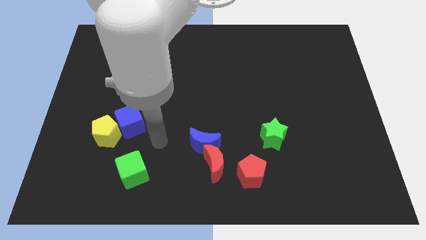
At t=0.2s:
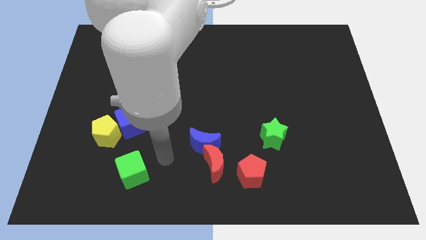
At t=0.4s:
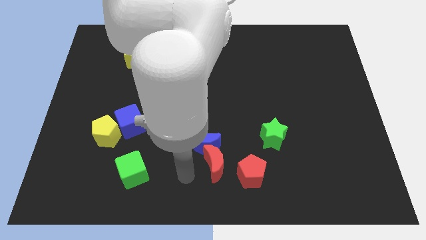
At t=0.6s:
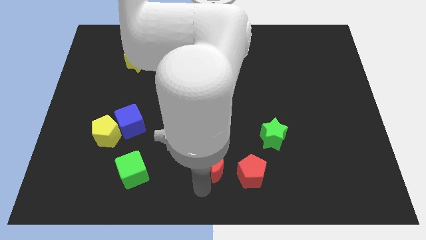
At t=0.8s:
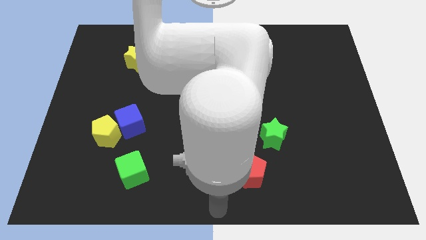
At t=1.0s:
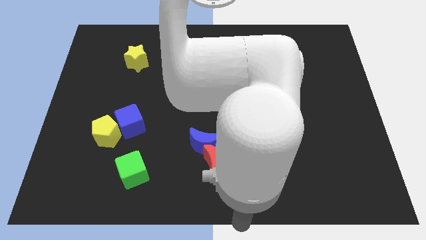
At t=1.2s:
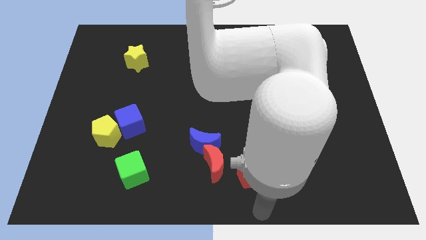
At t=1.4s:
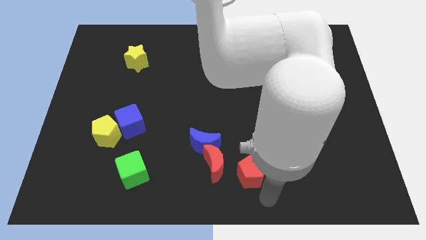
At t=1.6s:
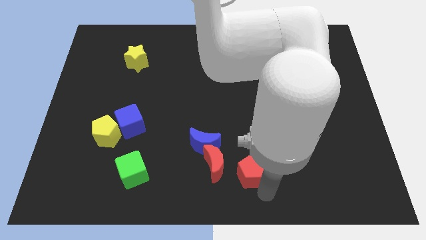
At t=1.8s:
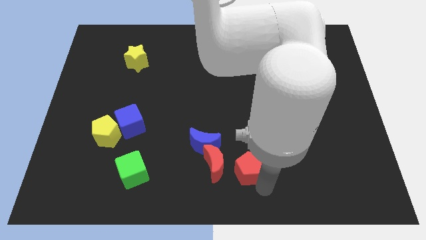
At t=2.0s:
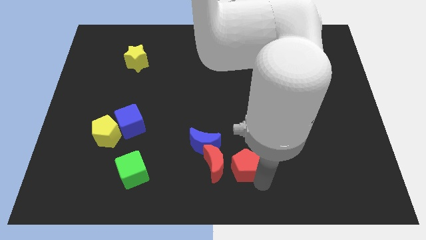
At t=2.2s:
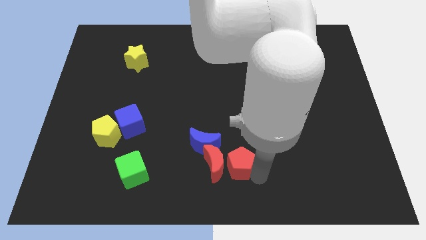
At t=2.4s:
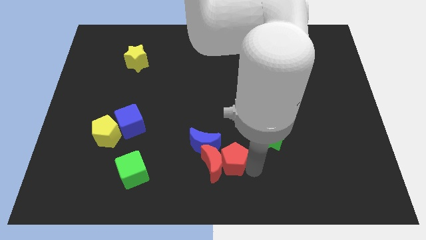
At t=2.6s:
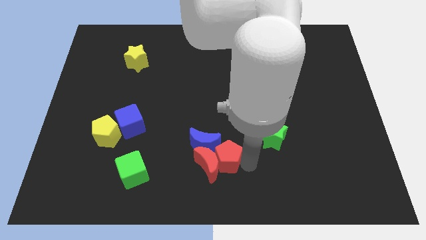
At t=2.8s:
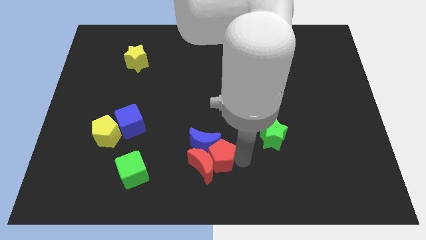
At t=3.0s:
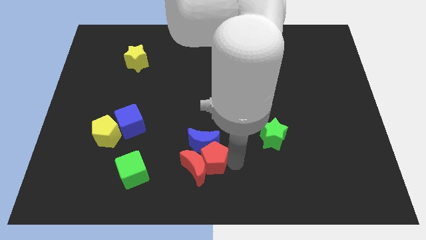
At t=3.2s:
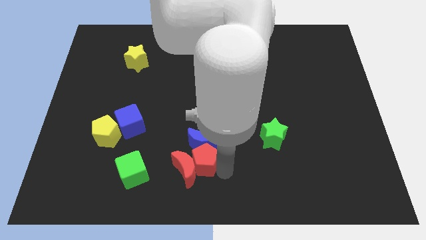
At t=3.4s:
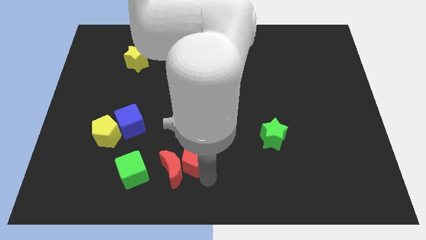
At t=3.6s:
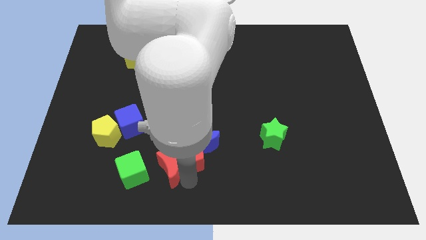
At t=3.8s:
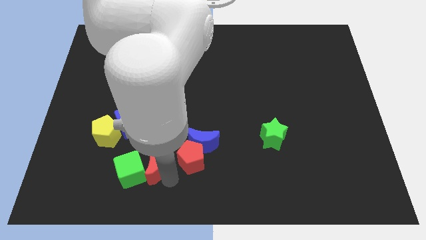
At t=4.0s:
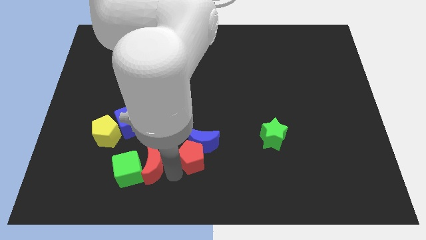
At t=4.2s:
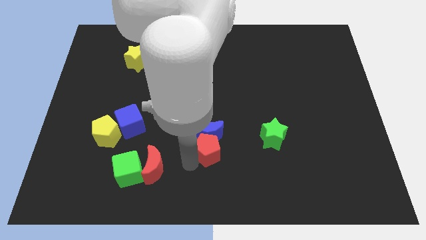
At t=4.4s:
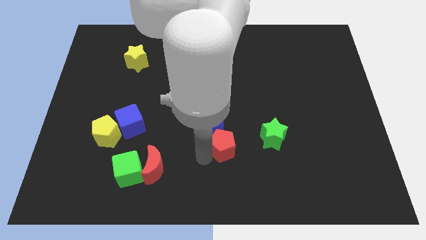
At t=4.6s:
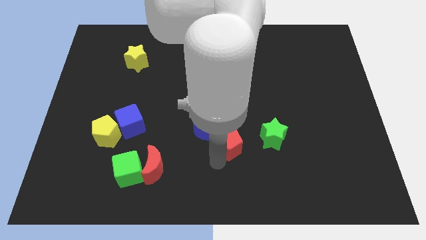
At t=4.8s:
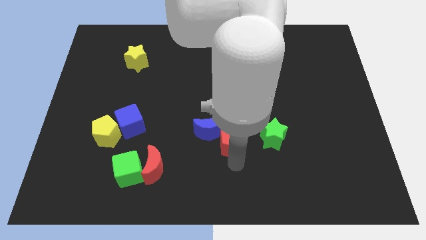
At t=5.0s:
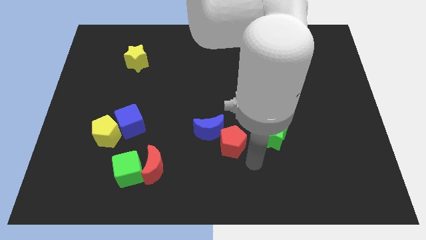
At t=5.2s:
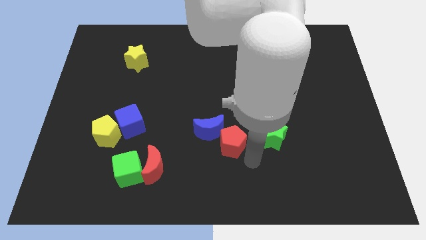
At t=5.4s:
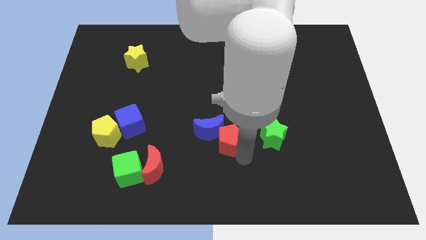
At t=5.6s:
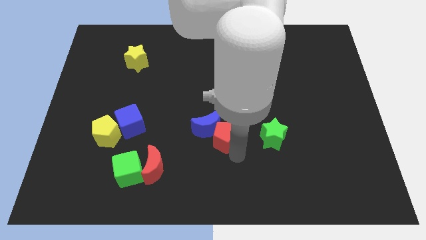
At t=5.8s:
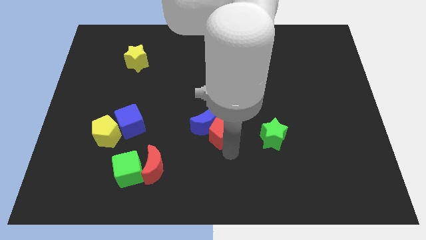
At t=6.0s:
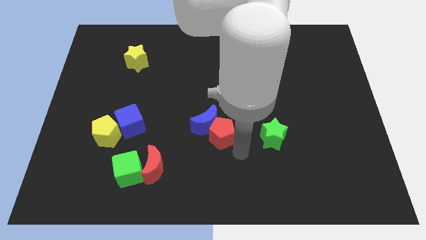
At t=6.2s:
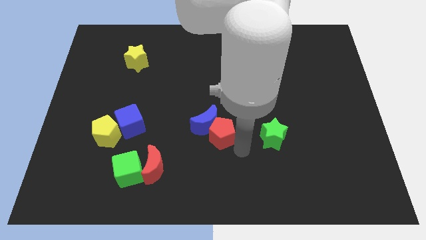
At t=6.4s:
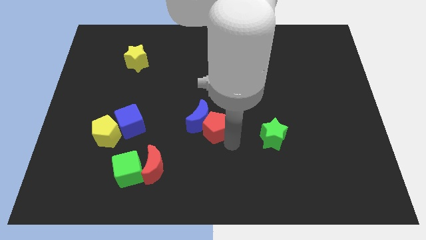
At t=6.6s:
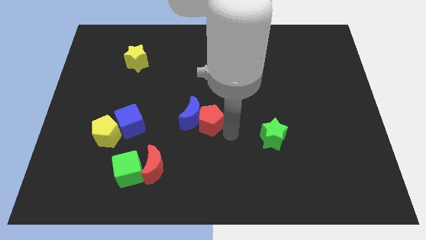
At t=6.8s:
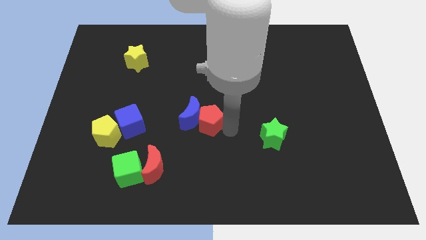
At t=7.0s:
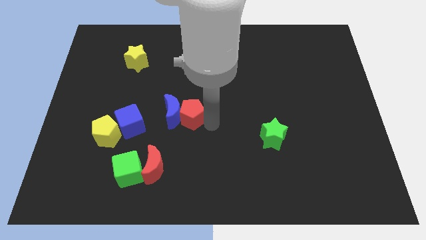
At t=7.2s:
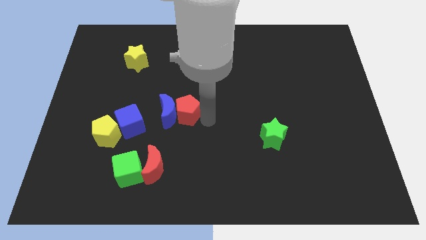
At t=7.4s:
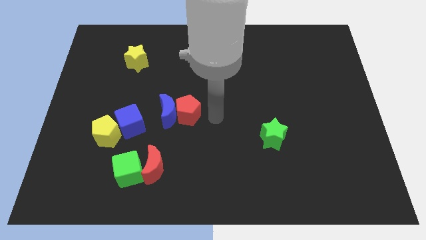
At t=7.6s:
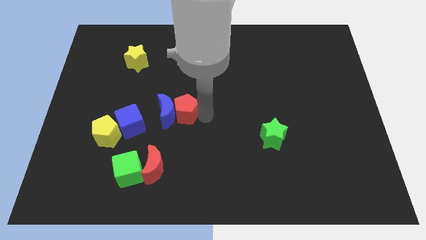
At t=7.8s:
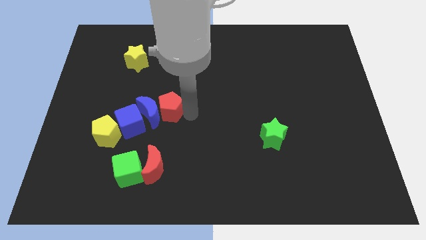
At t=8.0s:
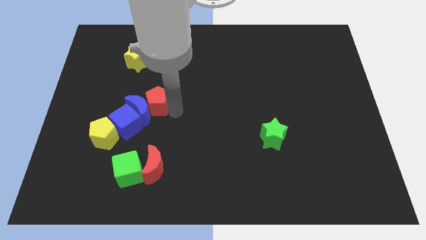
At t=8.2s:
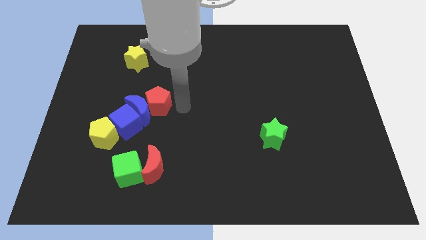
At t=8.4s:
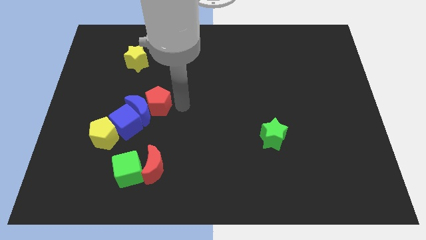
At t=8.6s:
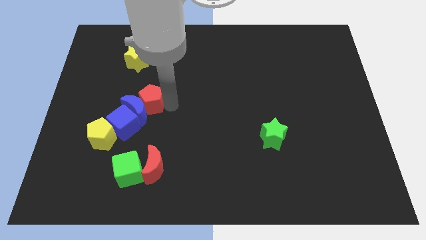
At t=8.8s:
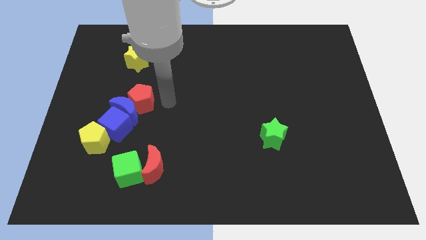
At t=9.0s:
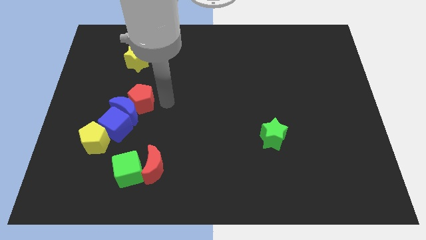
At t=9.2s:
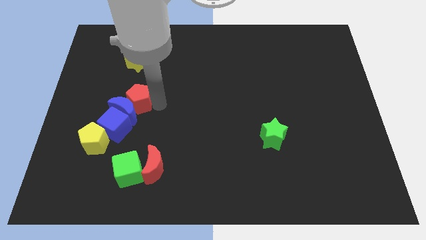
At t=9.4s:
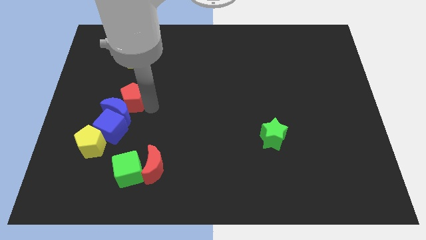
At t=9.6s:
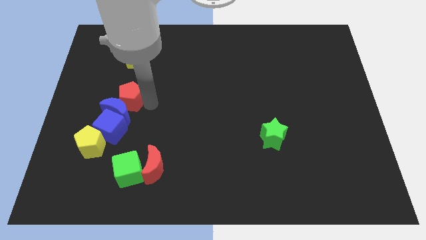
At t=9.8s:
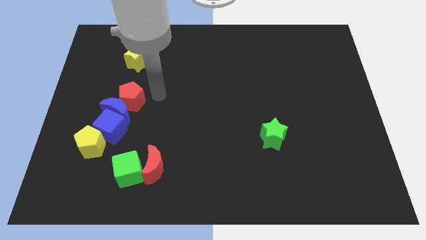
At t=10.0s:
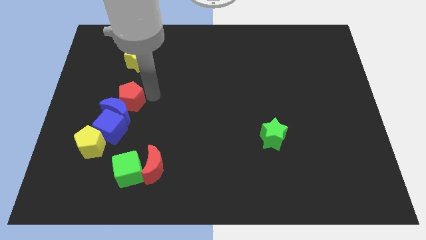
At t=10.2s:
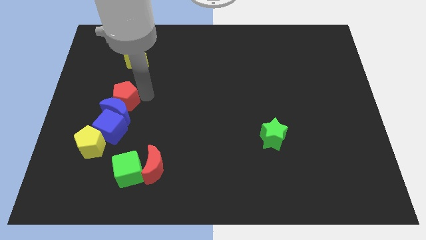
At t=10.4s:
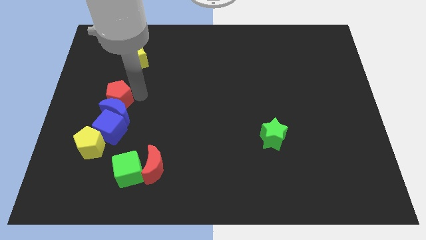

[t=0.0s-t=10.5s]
move the red pentagon to the top side of the yellow pentagon

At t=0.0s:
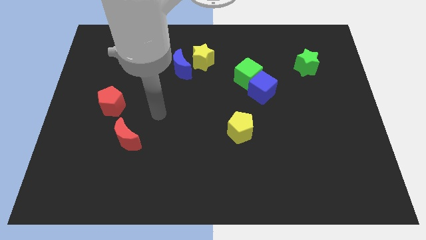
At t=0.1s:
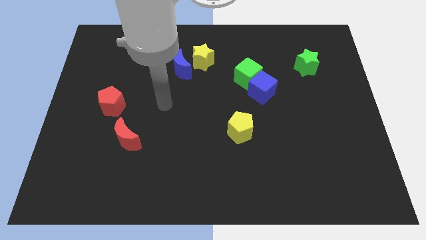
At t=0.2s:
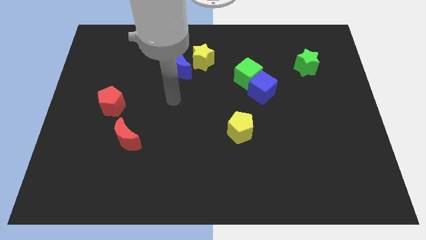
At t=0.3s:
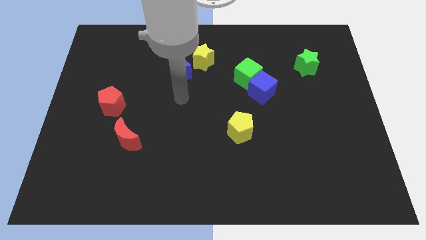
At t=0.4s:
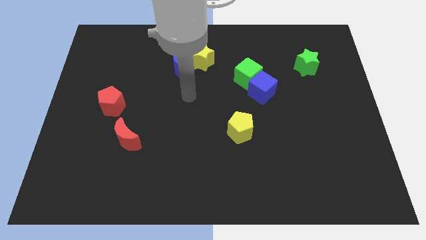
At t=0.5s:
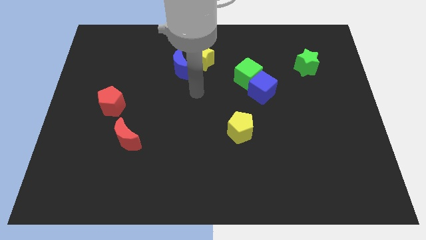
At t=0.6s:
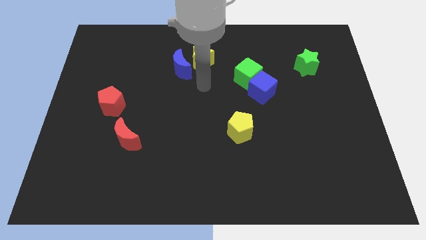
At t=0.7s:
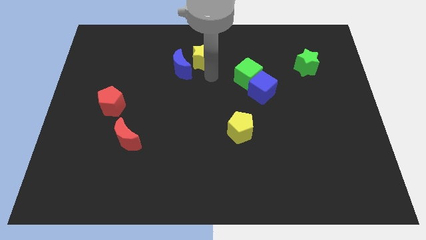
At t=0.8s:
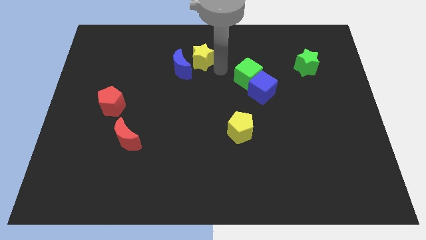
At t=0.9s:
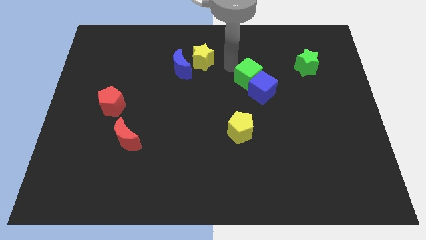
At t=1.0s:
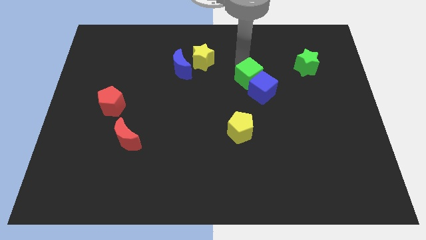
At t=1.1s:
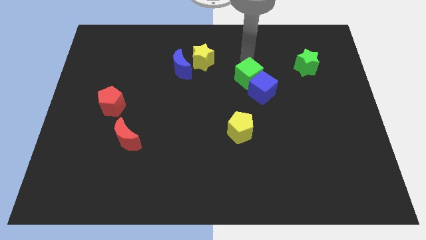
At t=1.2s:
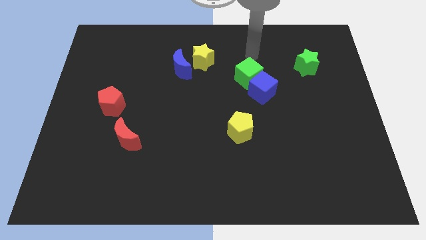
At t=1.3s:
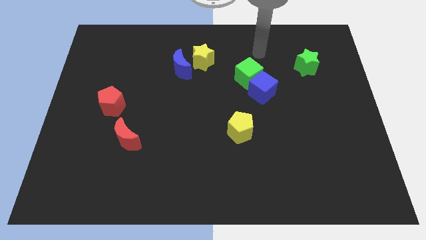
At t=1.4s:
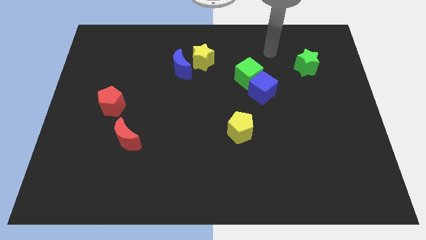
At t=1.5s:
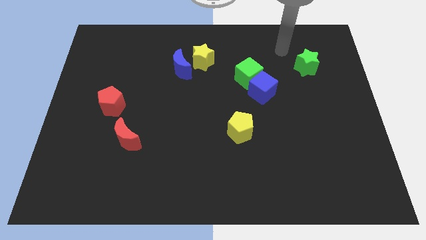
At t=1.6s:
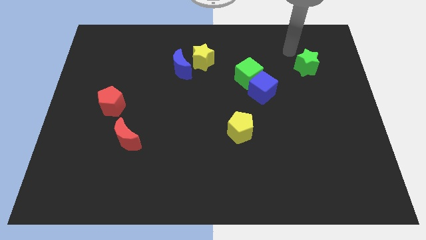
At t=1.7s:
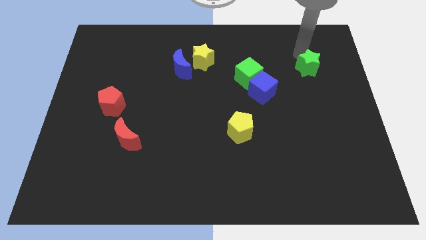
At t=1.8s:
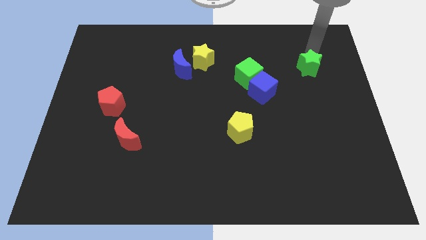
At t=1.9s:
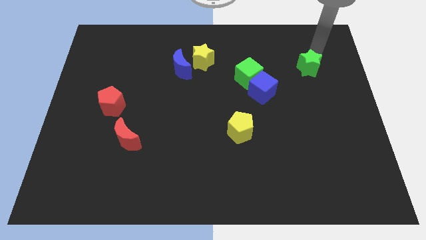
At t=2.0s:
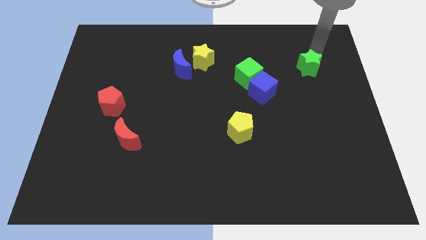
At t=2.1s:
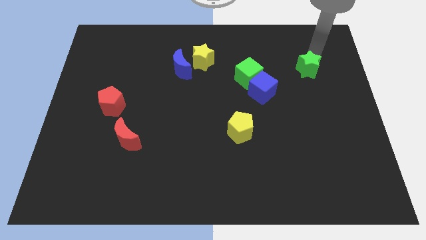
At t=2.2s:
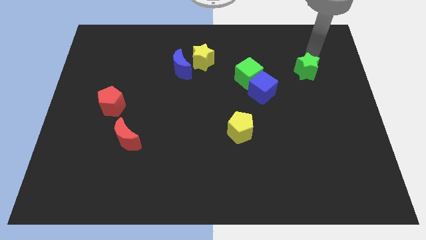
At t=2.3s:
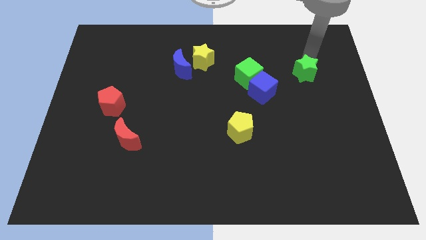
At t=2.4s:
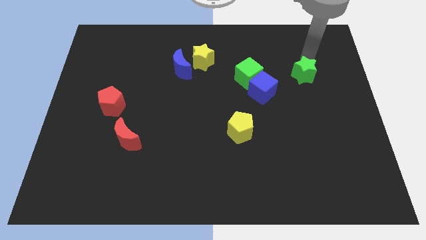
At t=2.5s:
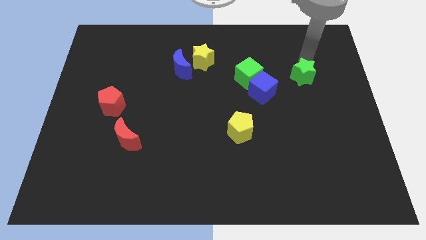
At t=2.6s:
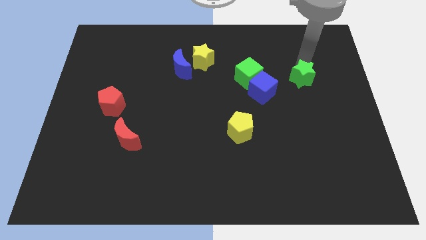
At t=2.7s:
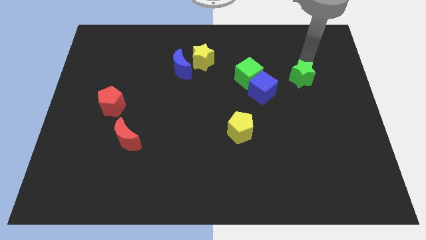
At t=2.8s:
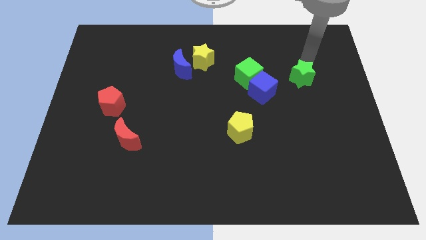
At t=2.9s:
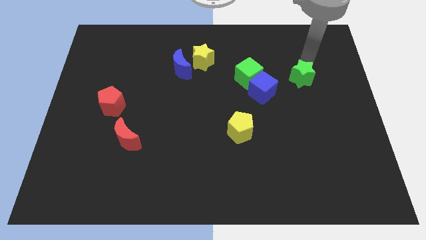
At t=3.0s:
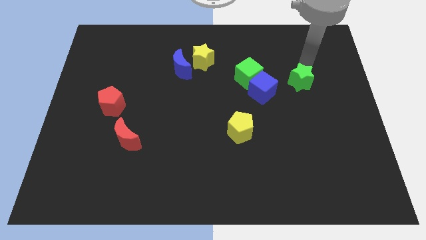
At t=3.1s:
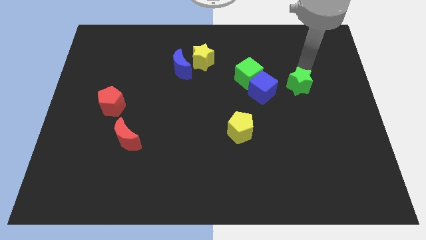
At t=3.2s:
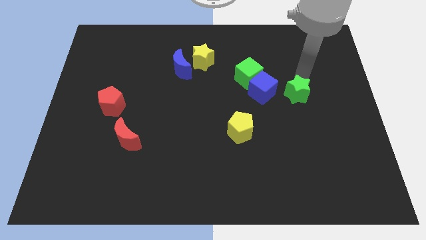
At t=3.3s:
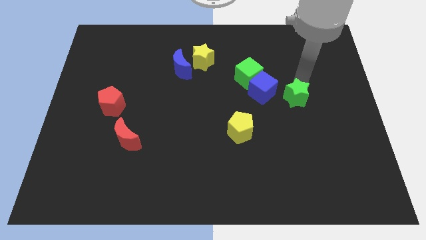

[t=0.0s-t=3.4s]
slide the green star diagonally down and to the right of the blue cube
